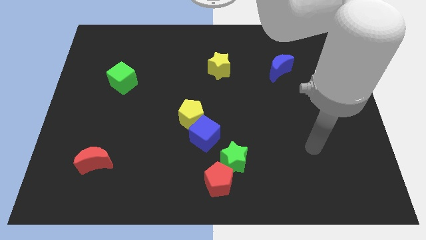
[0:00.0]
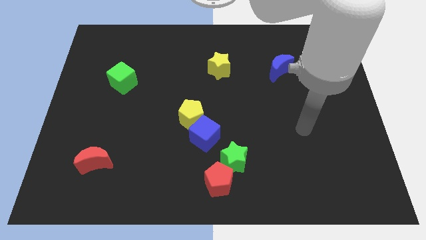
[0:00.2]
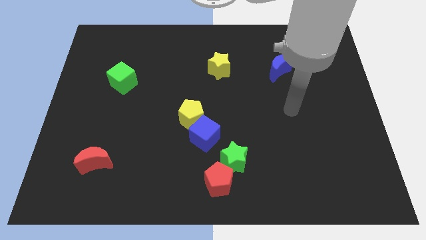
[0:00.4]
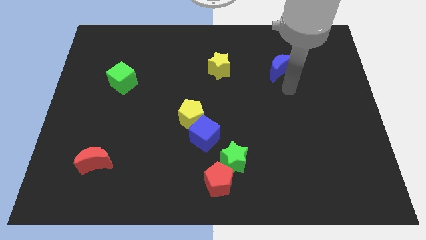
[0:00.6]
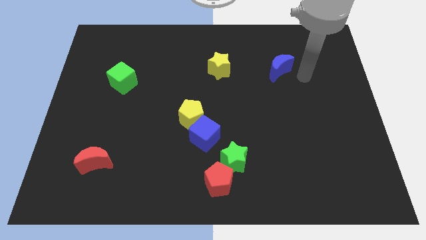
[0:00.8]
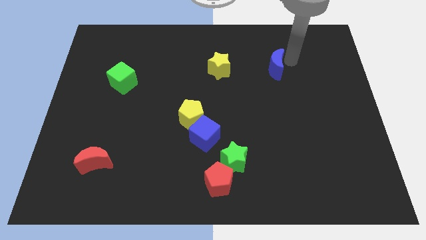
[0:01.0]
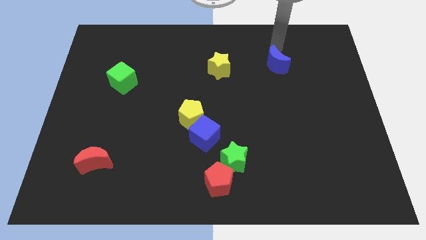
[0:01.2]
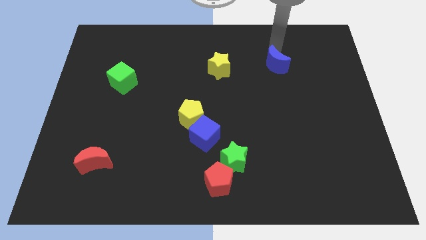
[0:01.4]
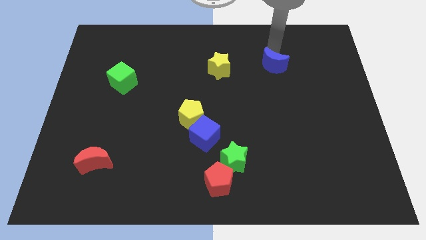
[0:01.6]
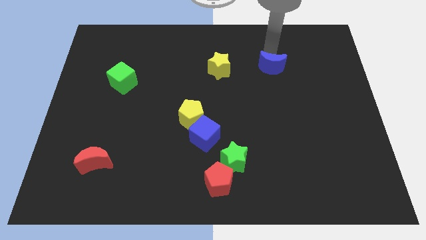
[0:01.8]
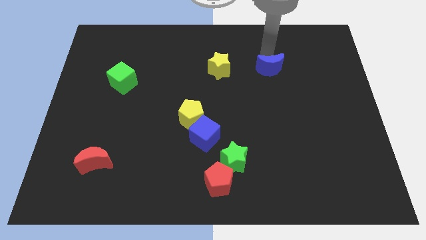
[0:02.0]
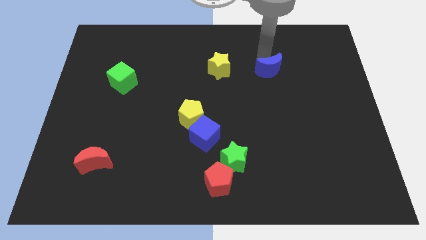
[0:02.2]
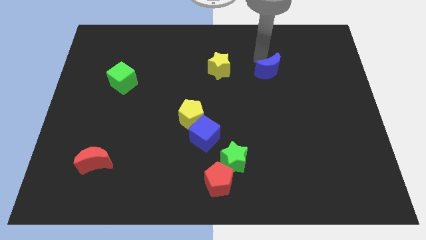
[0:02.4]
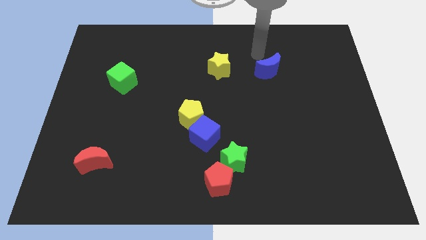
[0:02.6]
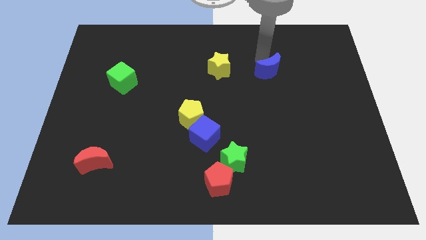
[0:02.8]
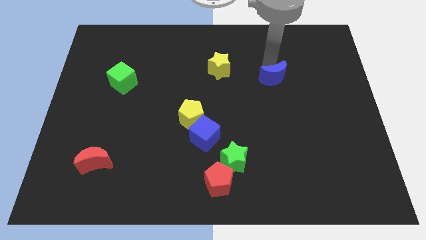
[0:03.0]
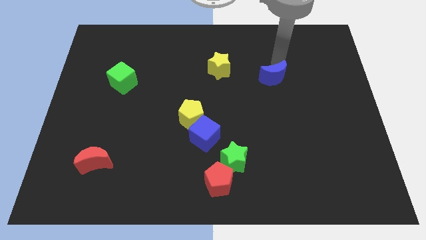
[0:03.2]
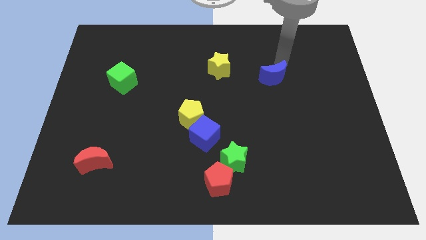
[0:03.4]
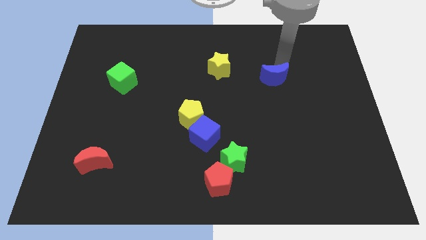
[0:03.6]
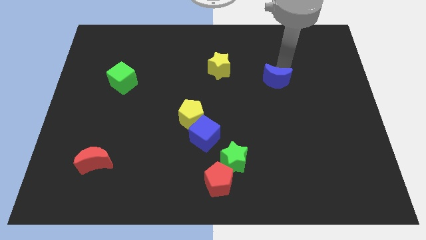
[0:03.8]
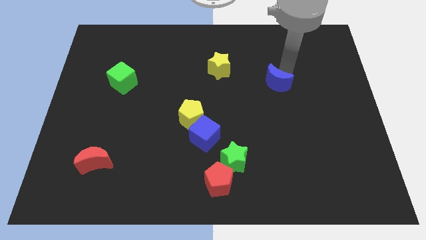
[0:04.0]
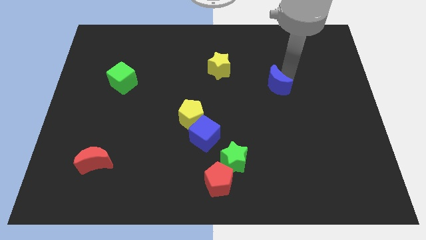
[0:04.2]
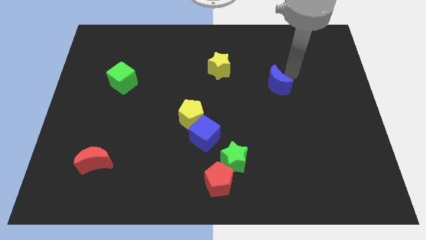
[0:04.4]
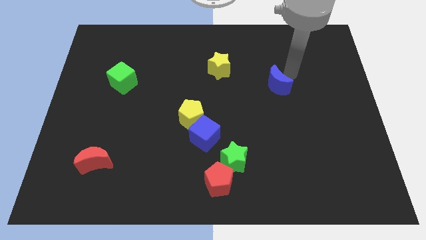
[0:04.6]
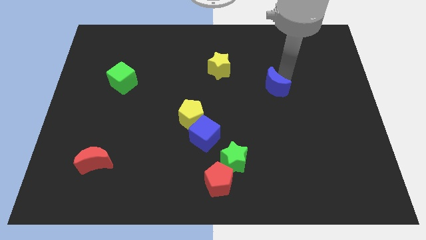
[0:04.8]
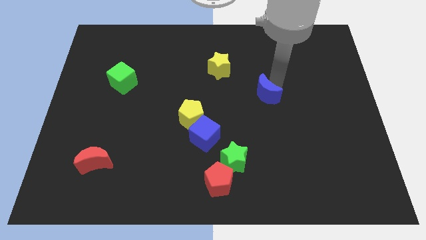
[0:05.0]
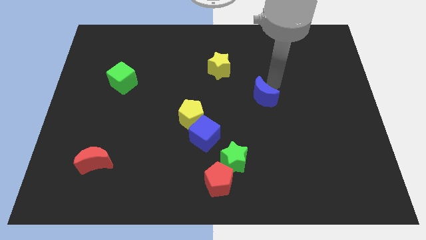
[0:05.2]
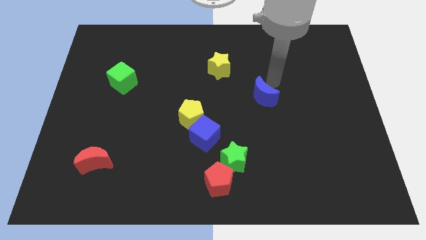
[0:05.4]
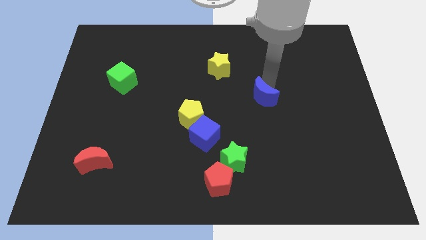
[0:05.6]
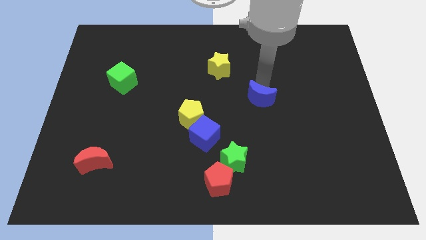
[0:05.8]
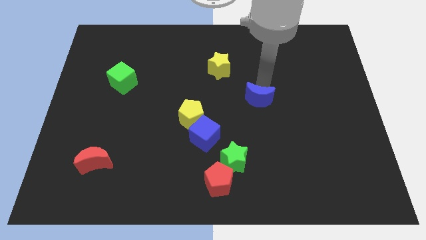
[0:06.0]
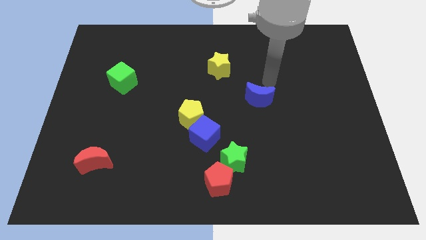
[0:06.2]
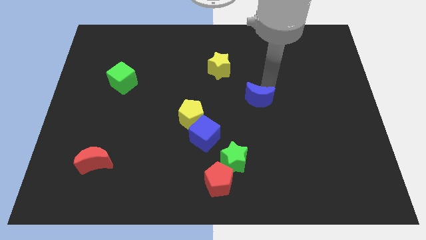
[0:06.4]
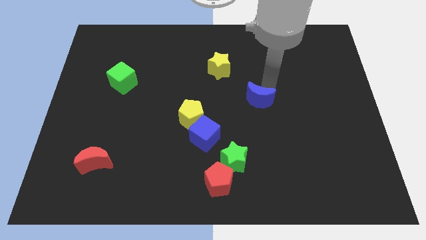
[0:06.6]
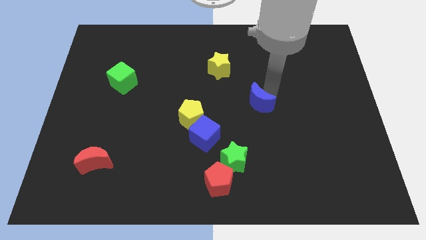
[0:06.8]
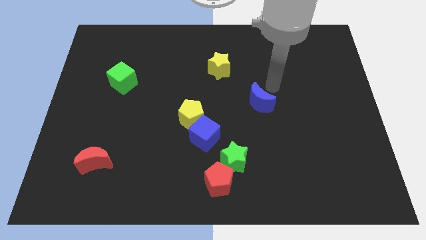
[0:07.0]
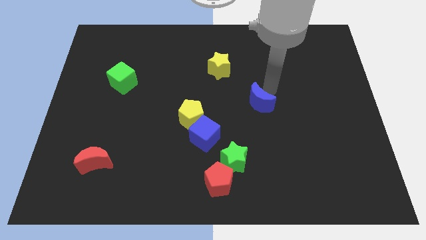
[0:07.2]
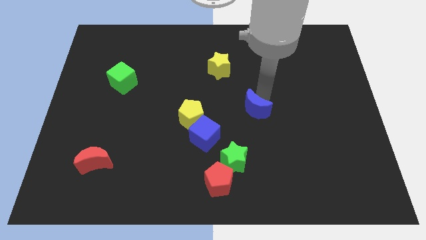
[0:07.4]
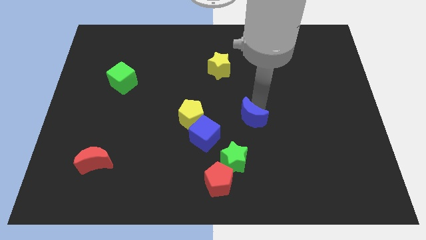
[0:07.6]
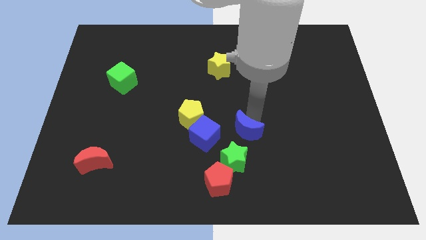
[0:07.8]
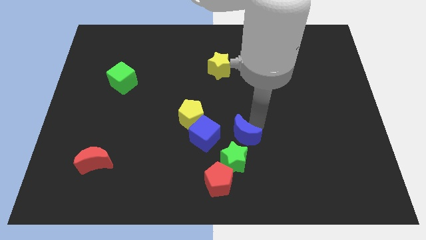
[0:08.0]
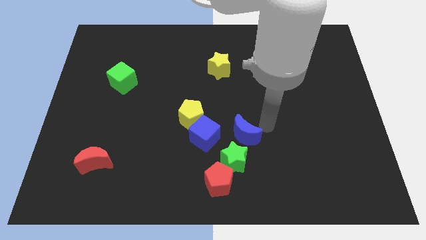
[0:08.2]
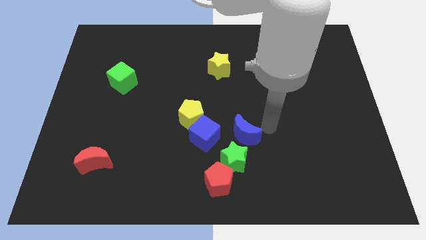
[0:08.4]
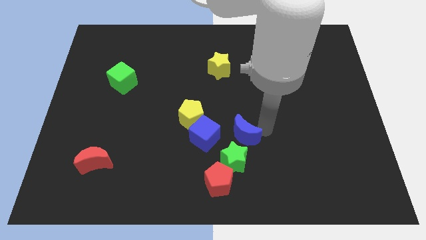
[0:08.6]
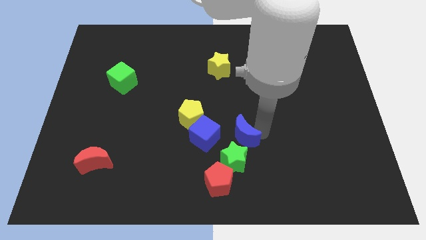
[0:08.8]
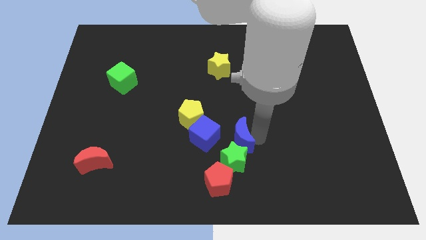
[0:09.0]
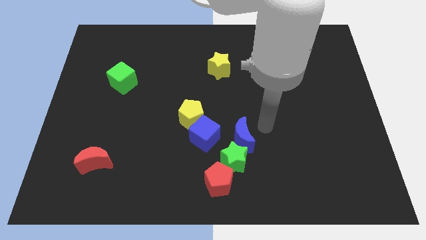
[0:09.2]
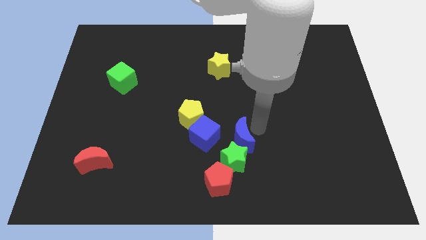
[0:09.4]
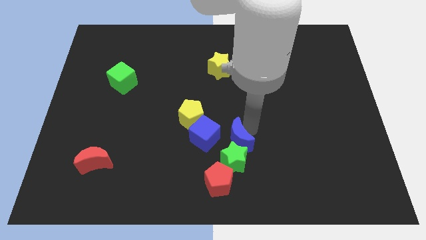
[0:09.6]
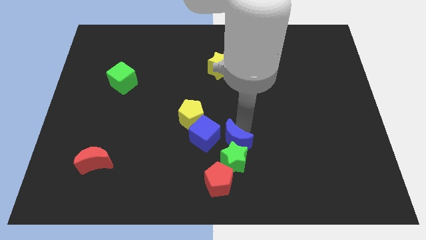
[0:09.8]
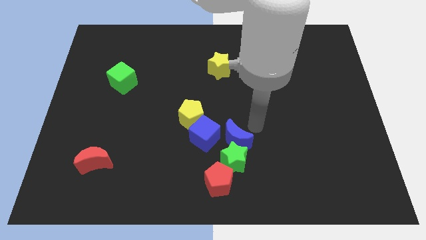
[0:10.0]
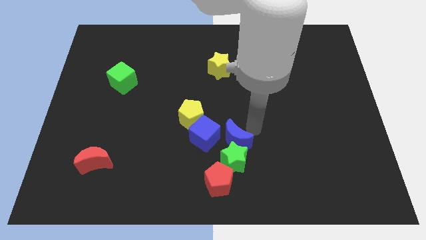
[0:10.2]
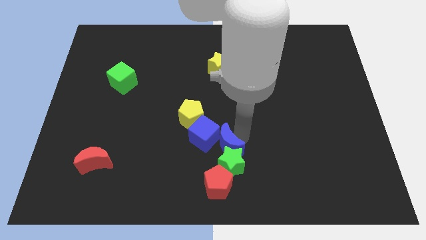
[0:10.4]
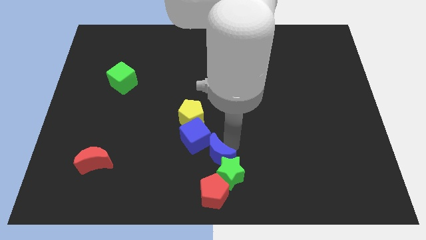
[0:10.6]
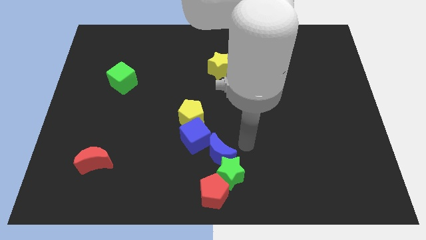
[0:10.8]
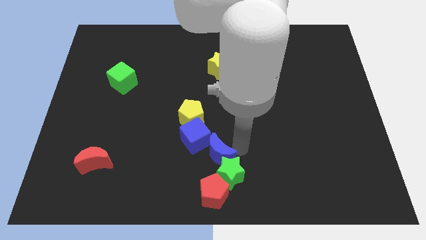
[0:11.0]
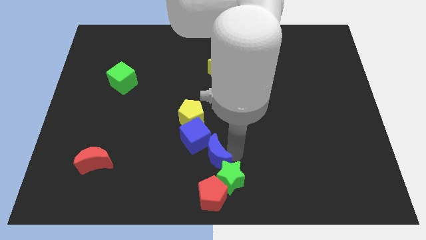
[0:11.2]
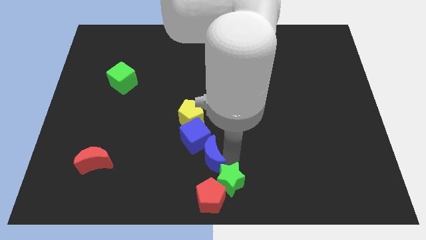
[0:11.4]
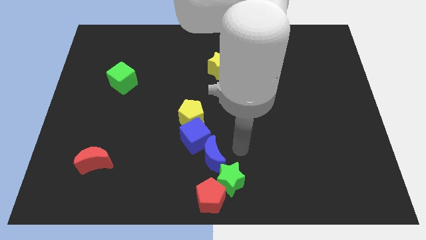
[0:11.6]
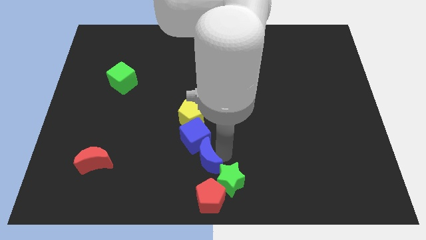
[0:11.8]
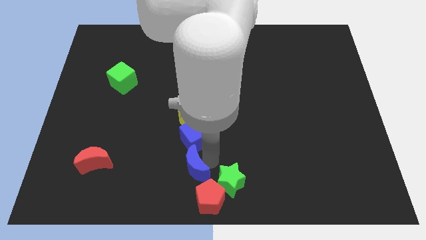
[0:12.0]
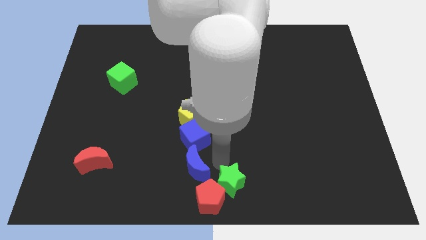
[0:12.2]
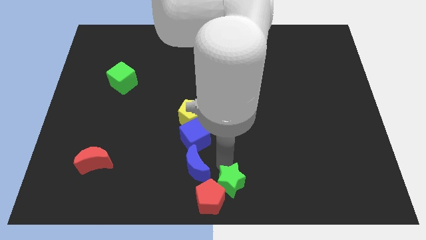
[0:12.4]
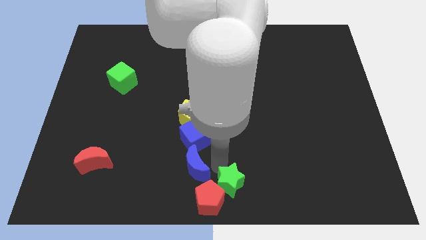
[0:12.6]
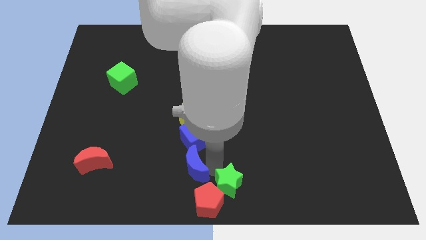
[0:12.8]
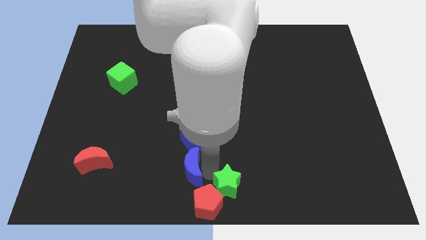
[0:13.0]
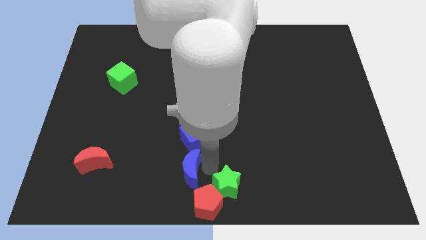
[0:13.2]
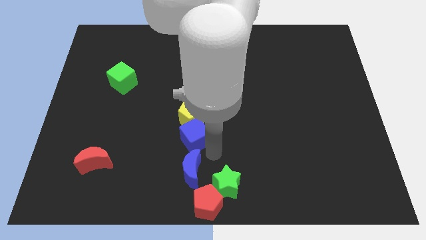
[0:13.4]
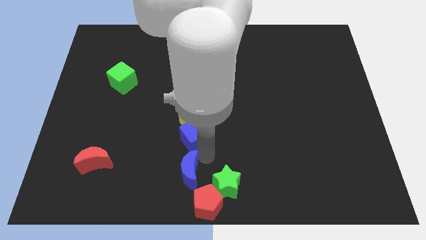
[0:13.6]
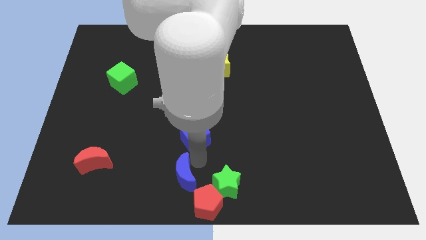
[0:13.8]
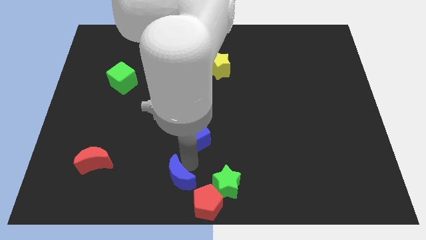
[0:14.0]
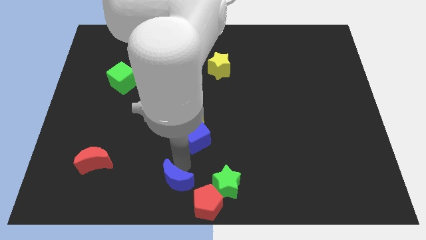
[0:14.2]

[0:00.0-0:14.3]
move the blue moon to the left side of the red pentagon
